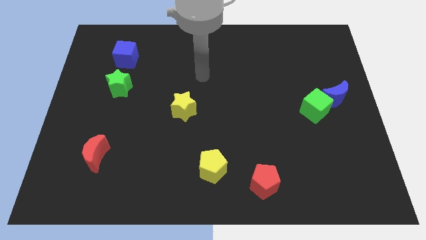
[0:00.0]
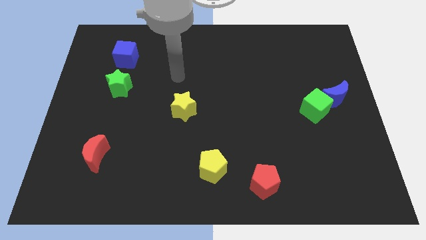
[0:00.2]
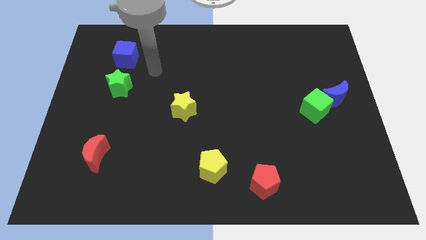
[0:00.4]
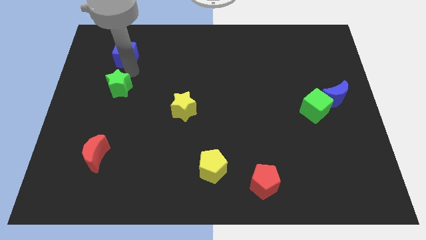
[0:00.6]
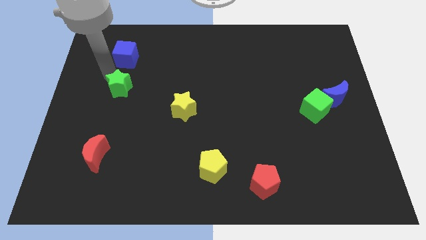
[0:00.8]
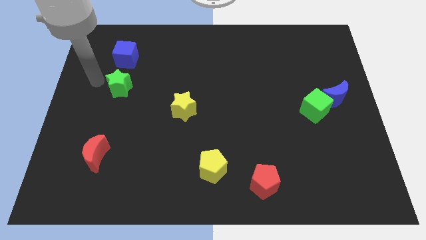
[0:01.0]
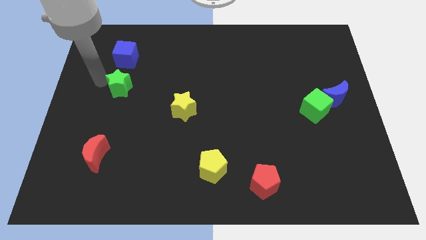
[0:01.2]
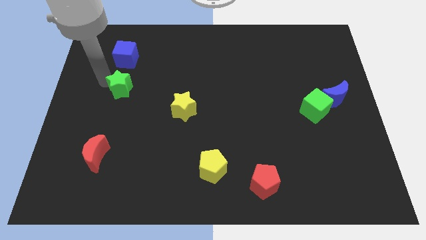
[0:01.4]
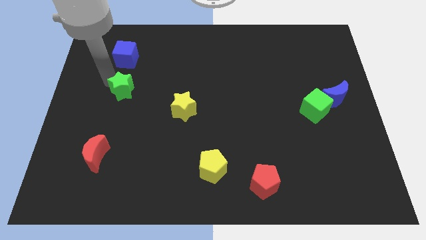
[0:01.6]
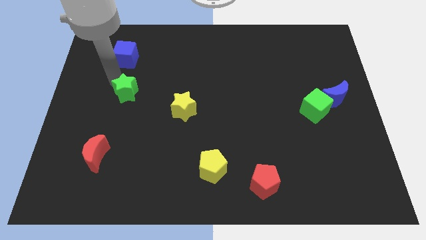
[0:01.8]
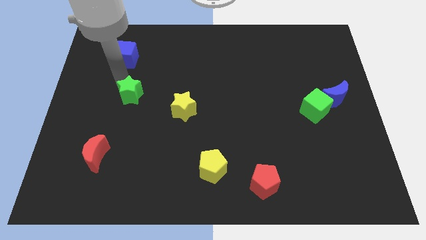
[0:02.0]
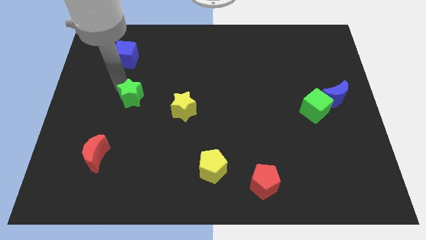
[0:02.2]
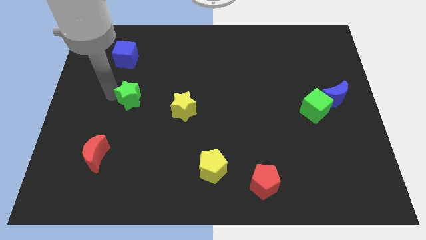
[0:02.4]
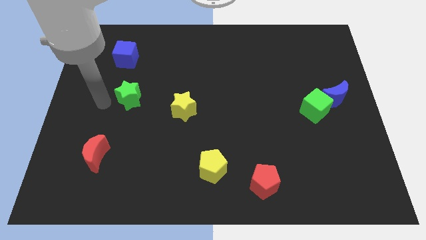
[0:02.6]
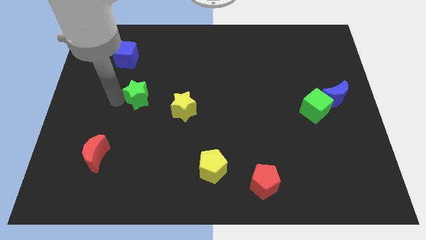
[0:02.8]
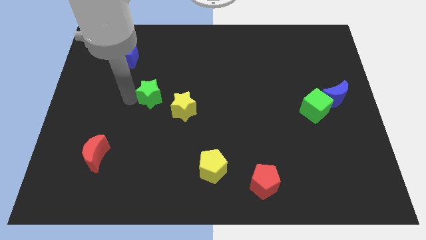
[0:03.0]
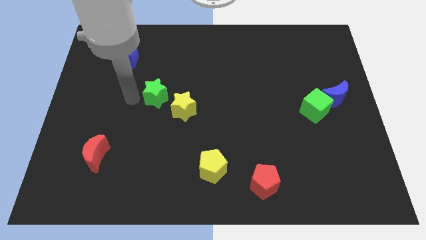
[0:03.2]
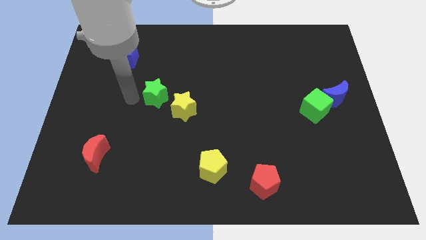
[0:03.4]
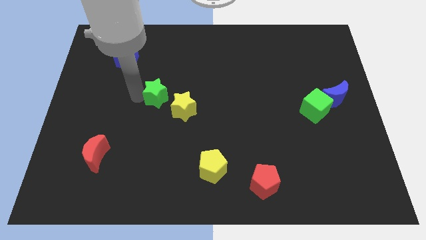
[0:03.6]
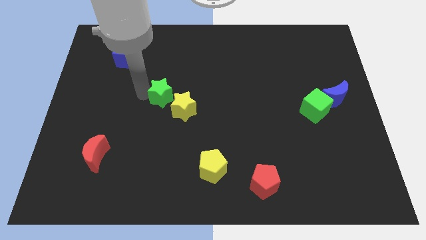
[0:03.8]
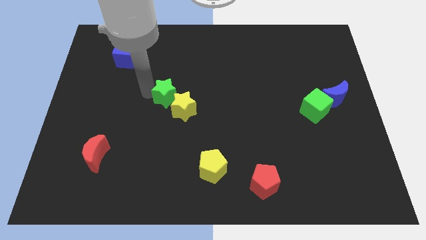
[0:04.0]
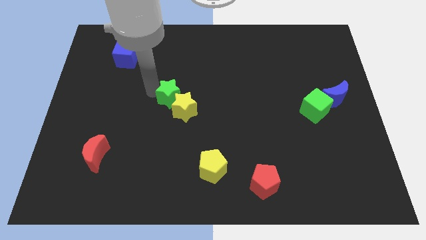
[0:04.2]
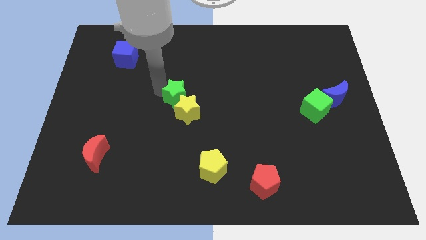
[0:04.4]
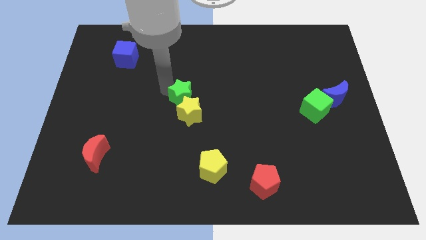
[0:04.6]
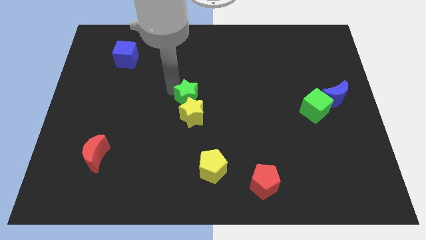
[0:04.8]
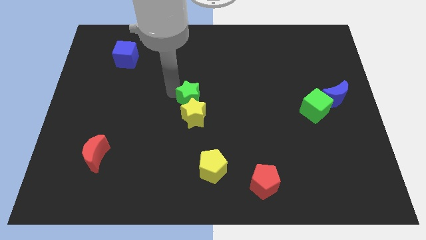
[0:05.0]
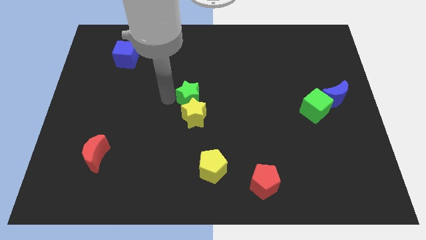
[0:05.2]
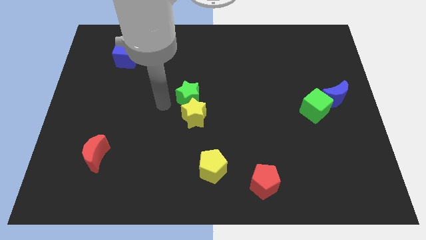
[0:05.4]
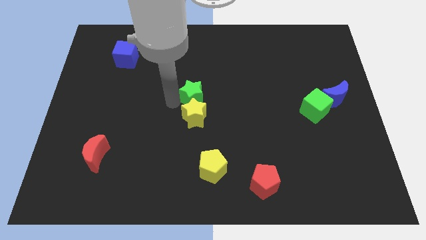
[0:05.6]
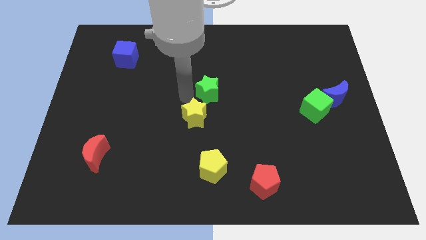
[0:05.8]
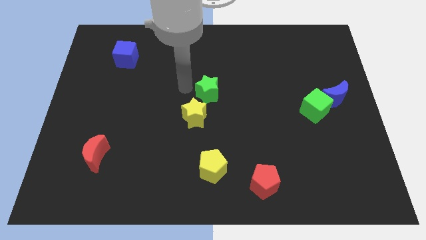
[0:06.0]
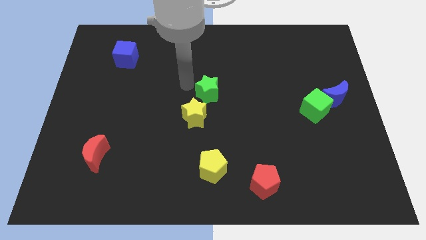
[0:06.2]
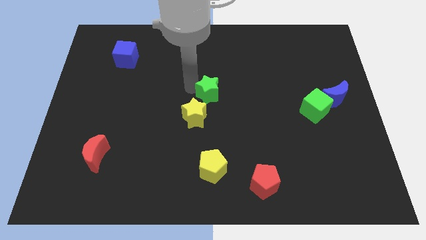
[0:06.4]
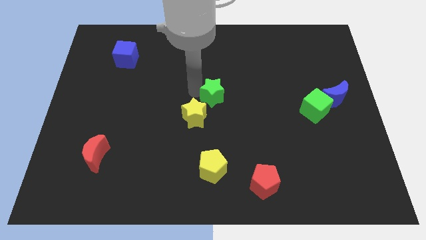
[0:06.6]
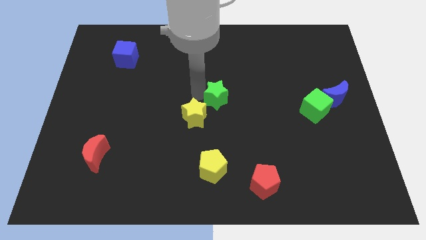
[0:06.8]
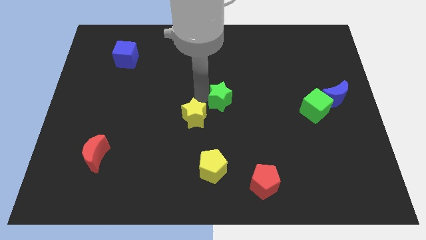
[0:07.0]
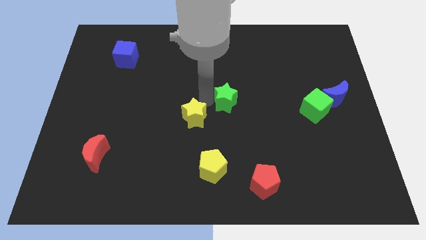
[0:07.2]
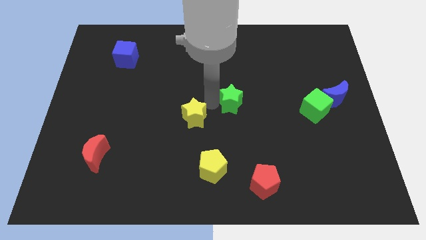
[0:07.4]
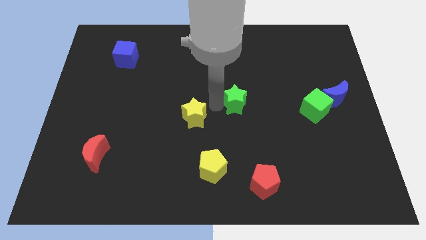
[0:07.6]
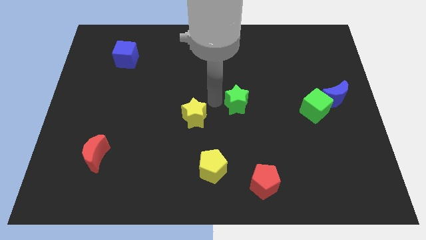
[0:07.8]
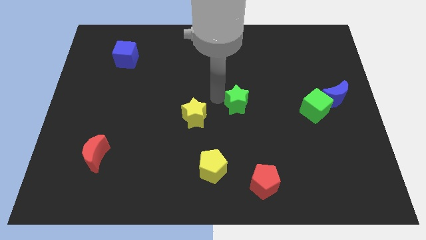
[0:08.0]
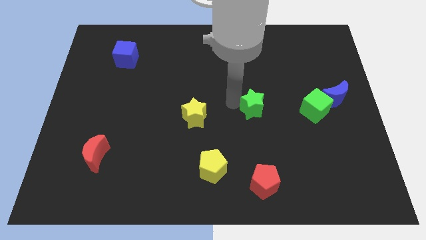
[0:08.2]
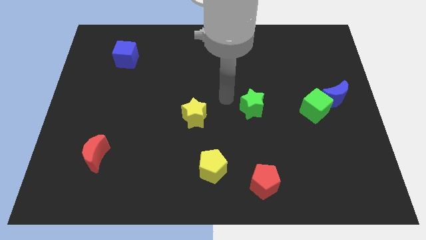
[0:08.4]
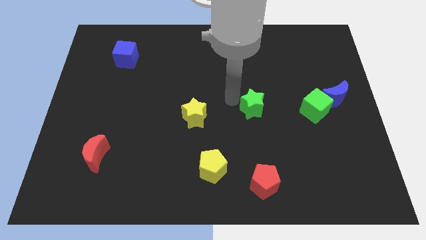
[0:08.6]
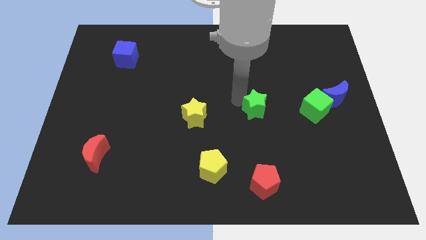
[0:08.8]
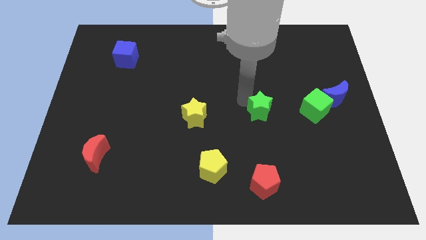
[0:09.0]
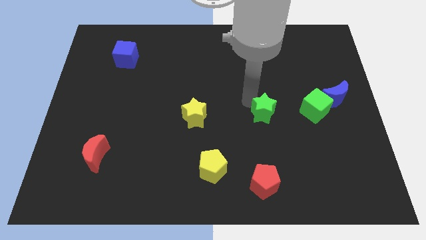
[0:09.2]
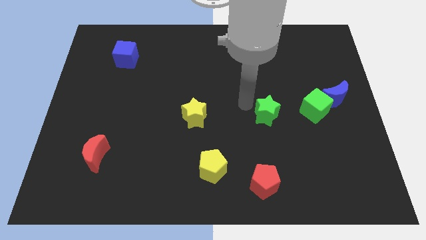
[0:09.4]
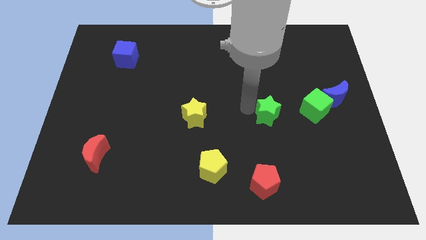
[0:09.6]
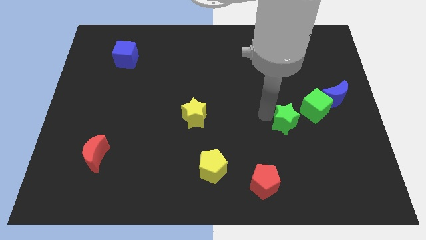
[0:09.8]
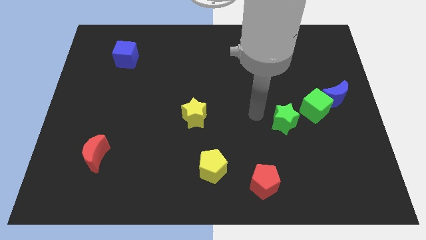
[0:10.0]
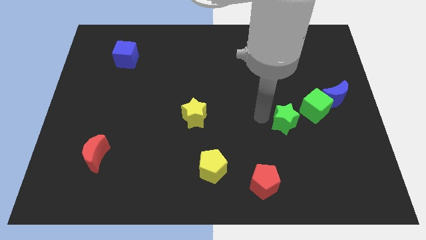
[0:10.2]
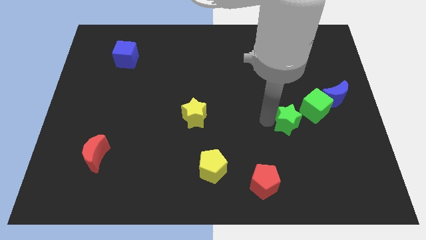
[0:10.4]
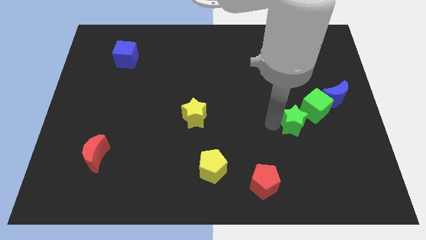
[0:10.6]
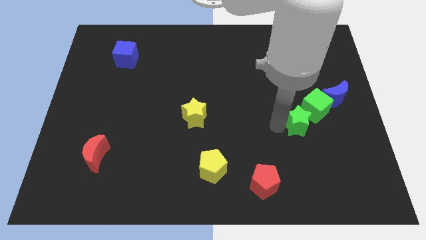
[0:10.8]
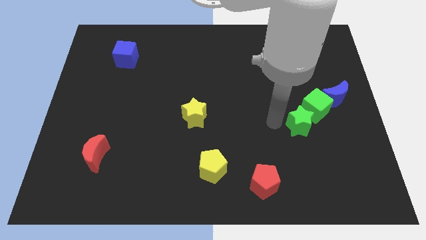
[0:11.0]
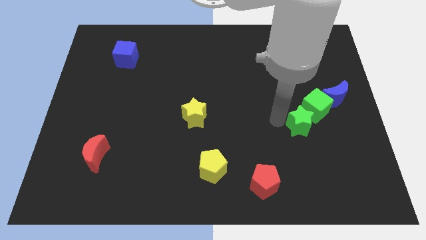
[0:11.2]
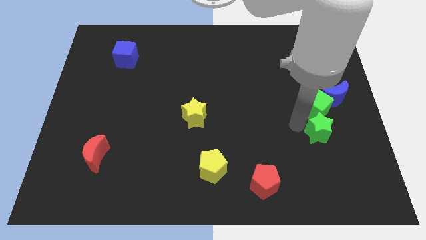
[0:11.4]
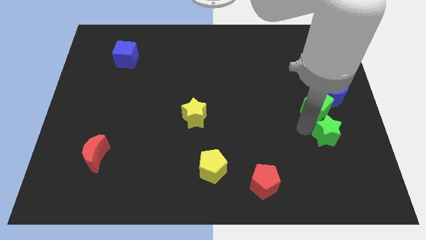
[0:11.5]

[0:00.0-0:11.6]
slide the green star to the bottom side of the blue moon

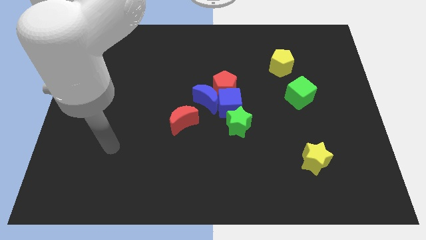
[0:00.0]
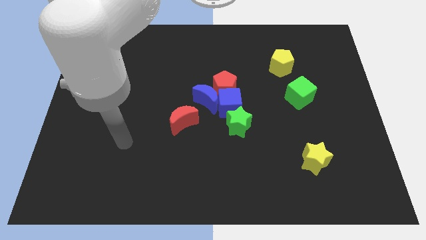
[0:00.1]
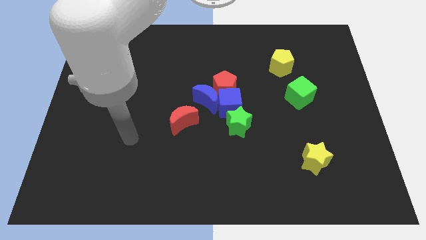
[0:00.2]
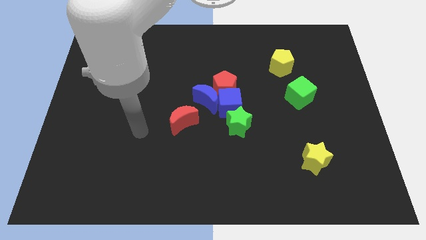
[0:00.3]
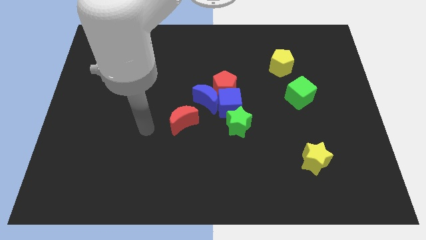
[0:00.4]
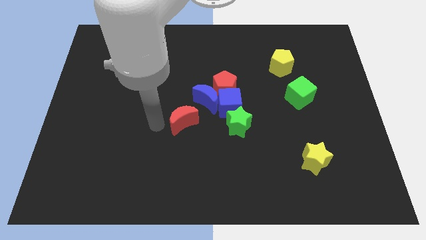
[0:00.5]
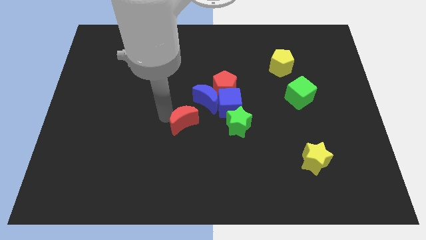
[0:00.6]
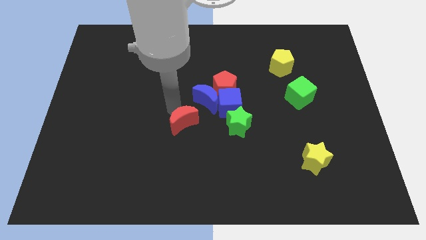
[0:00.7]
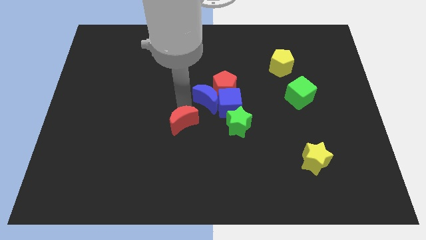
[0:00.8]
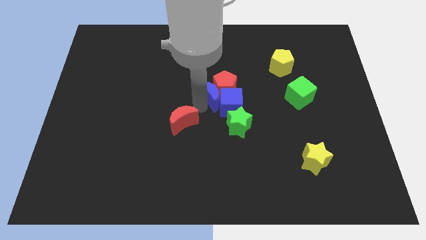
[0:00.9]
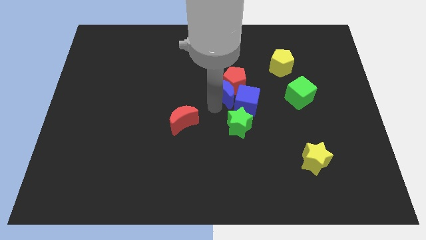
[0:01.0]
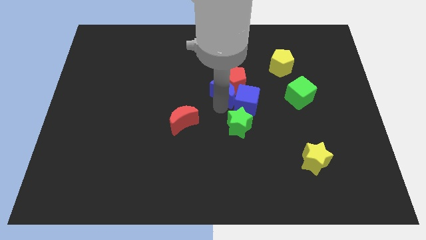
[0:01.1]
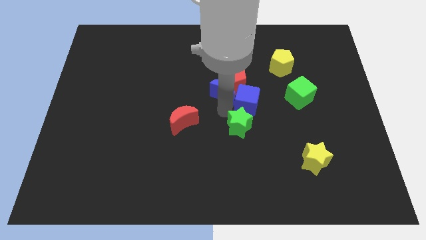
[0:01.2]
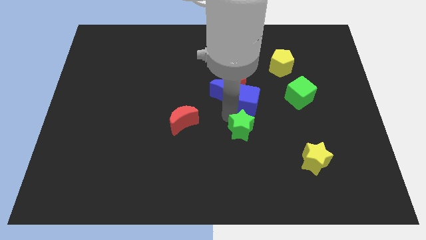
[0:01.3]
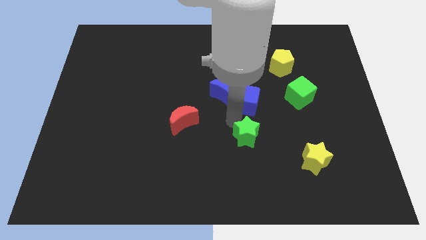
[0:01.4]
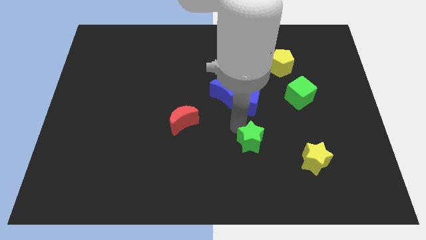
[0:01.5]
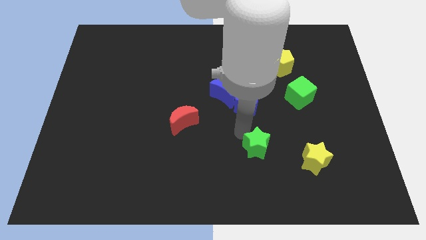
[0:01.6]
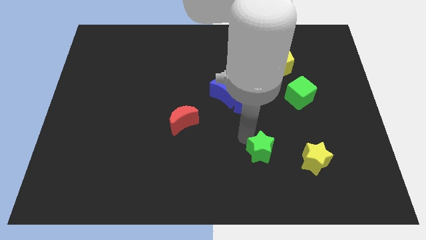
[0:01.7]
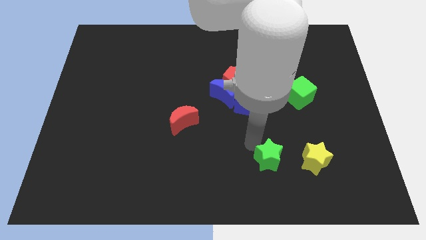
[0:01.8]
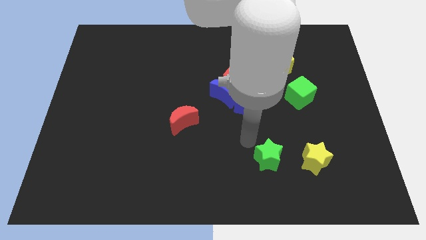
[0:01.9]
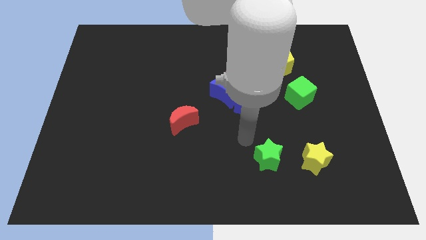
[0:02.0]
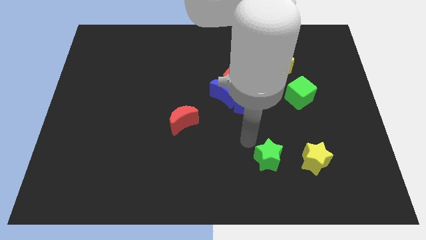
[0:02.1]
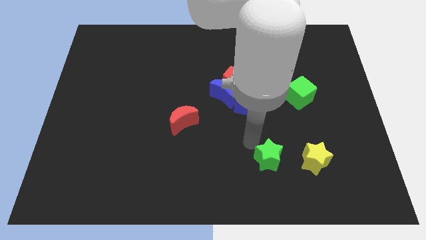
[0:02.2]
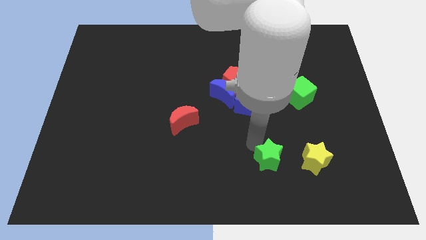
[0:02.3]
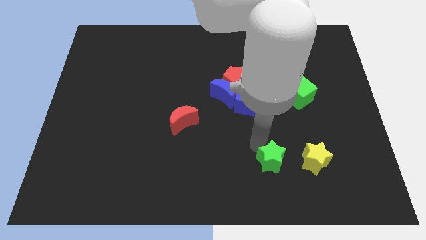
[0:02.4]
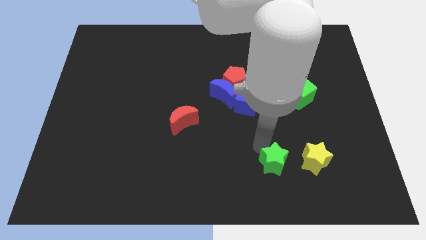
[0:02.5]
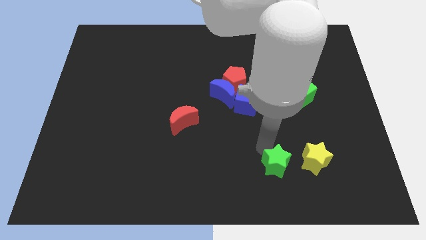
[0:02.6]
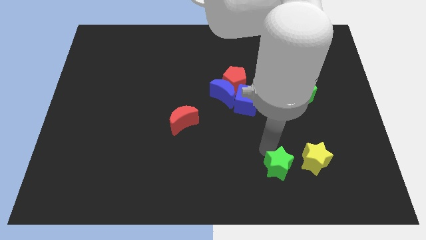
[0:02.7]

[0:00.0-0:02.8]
put the green star to the bottom left of the yellow star
